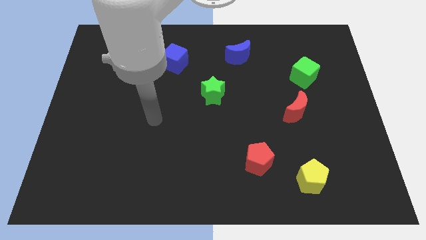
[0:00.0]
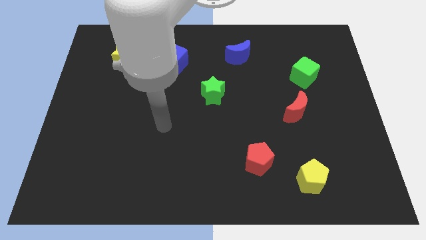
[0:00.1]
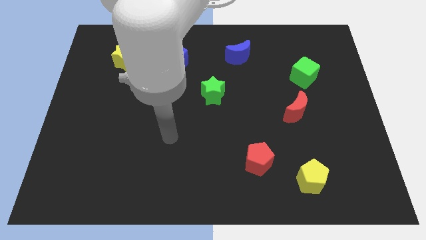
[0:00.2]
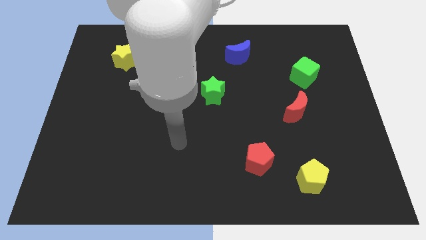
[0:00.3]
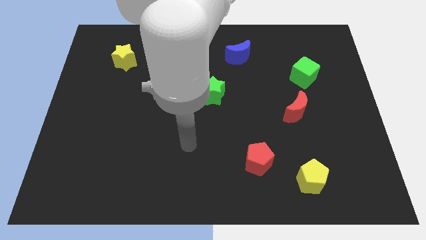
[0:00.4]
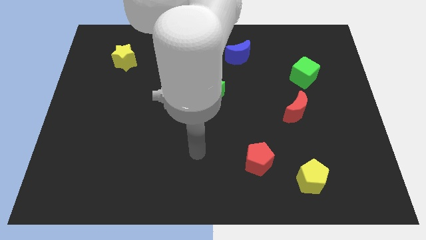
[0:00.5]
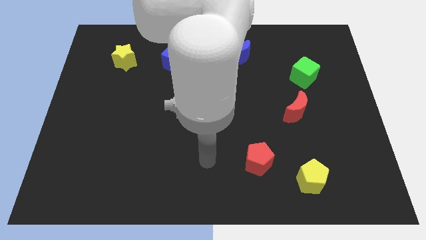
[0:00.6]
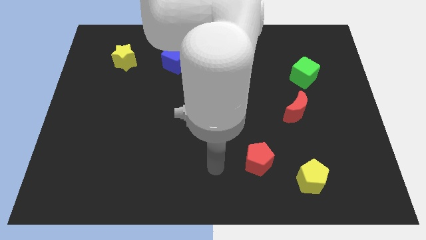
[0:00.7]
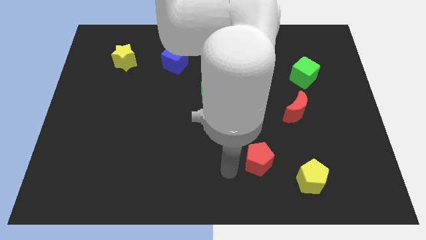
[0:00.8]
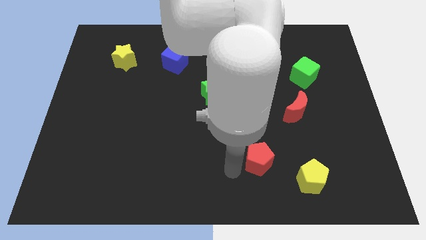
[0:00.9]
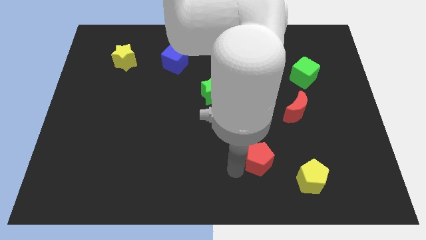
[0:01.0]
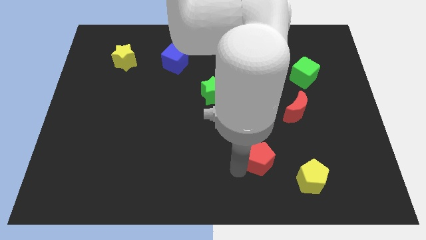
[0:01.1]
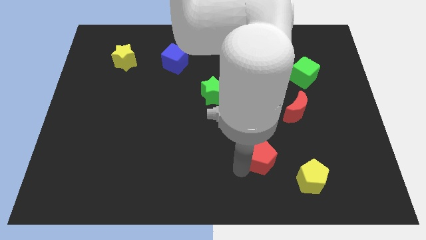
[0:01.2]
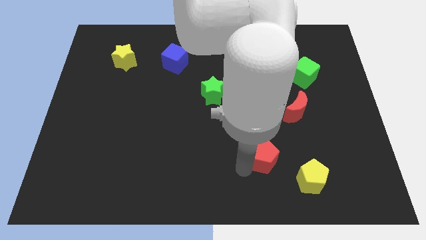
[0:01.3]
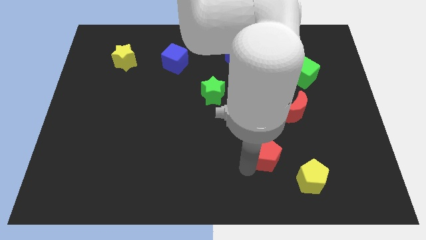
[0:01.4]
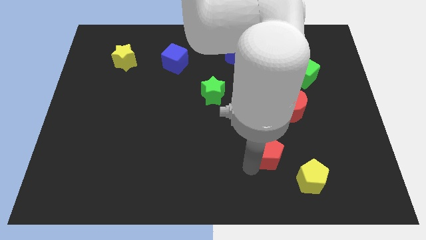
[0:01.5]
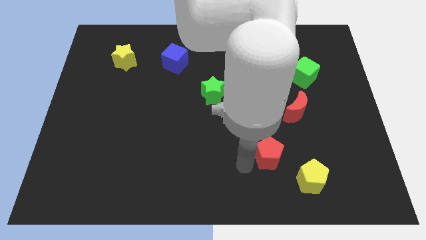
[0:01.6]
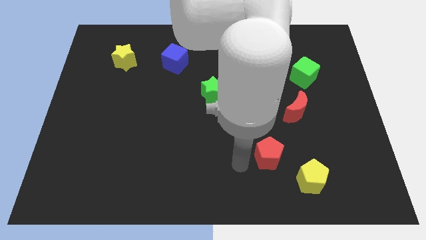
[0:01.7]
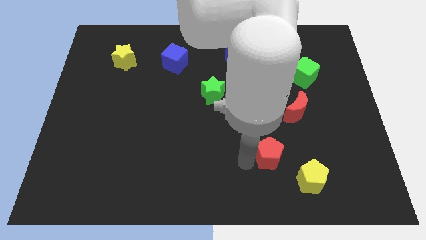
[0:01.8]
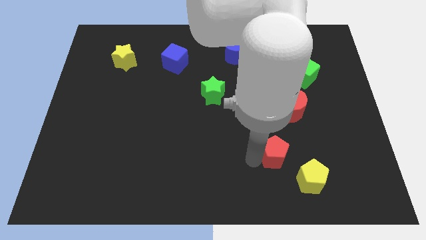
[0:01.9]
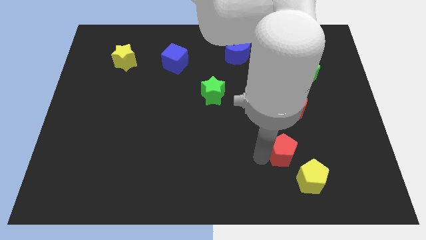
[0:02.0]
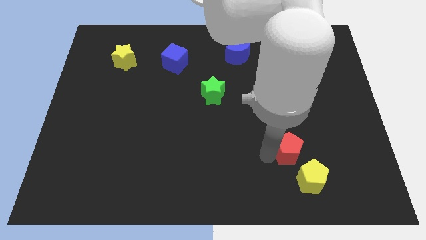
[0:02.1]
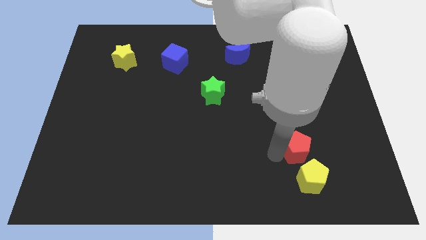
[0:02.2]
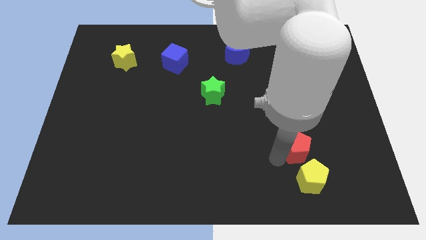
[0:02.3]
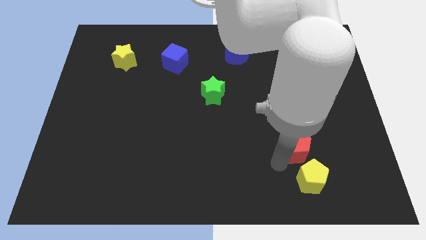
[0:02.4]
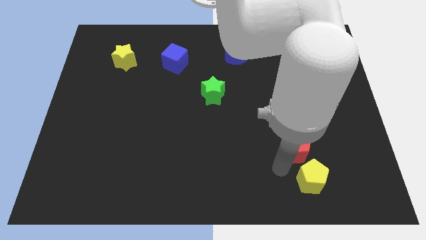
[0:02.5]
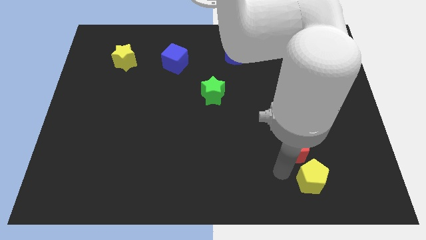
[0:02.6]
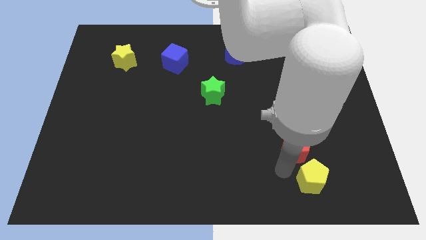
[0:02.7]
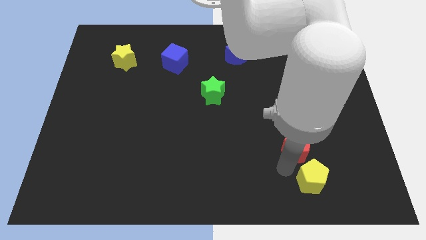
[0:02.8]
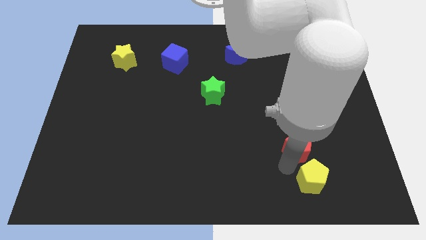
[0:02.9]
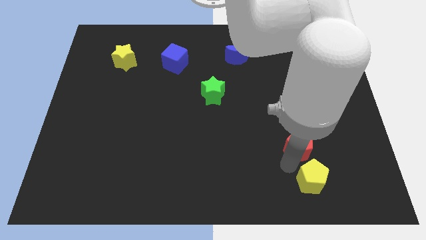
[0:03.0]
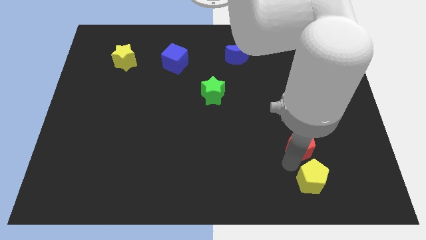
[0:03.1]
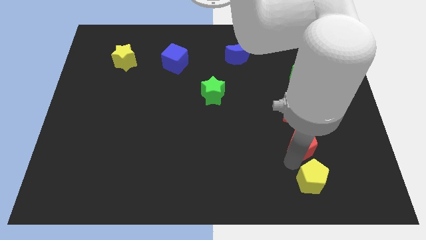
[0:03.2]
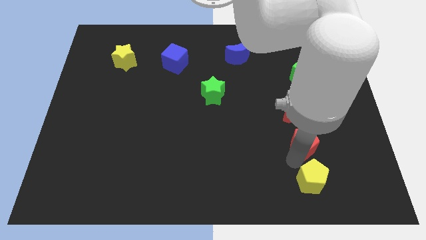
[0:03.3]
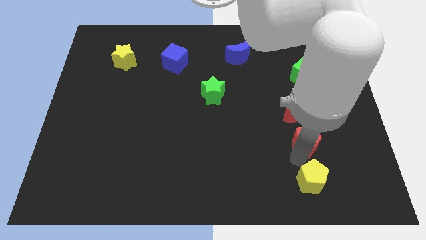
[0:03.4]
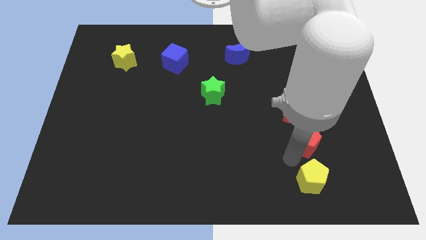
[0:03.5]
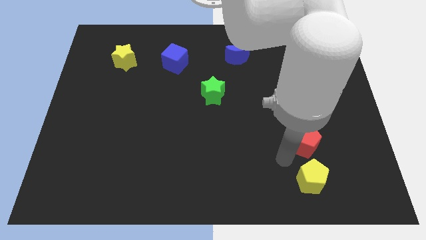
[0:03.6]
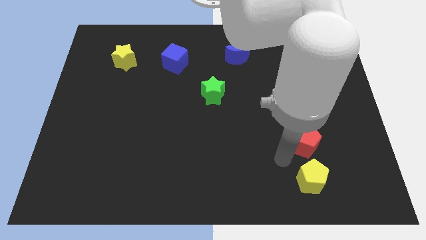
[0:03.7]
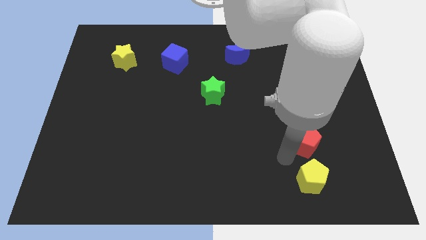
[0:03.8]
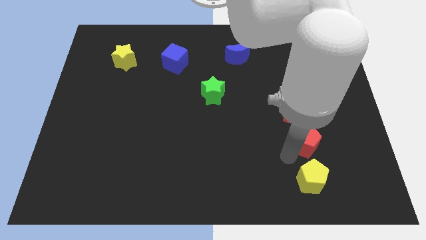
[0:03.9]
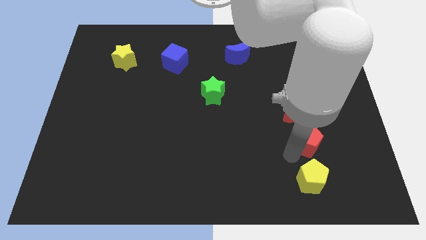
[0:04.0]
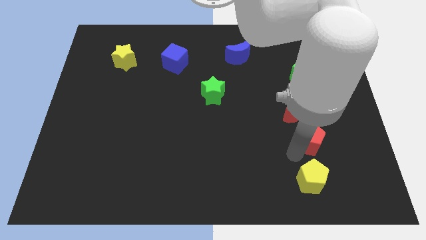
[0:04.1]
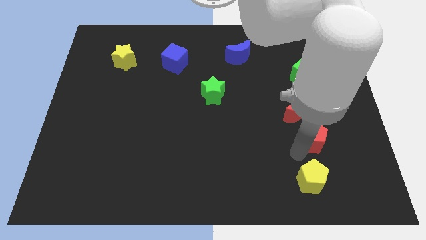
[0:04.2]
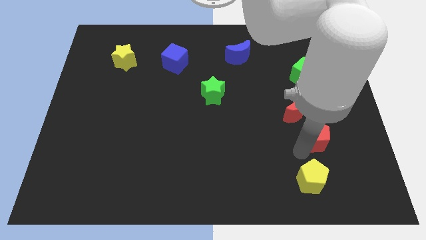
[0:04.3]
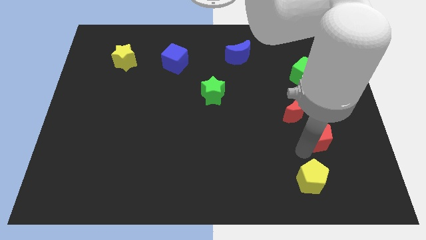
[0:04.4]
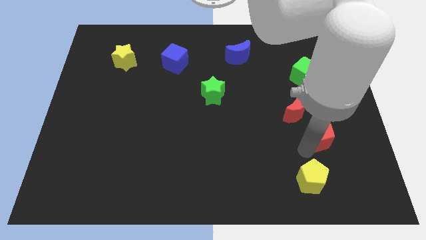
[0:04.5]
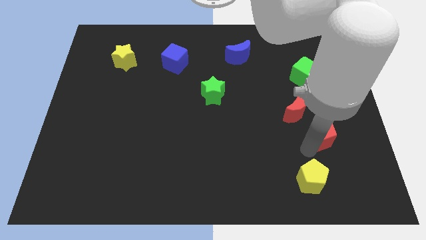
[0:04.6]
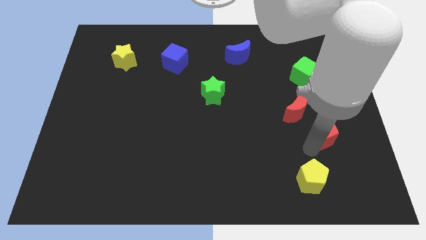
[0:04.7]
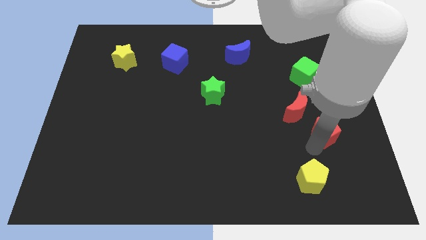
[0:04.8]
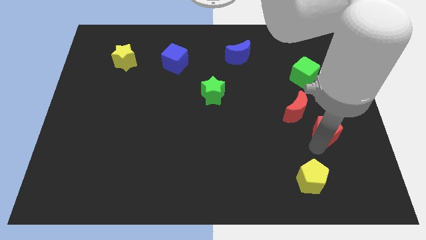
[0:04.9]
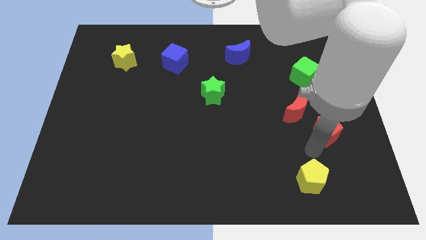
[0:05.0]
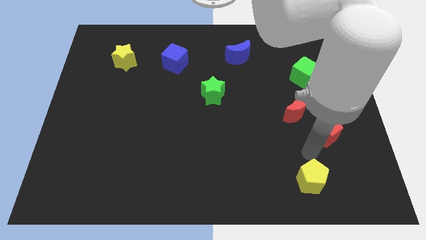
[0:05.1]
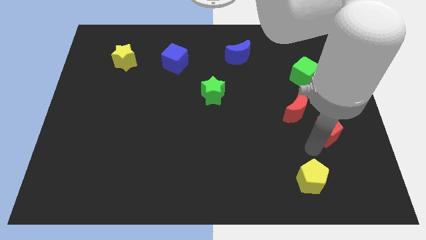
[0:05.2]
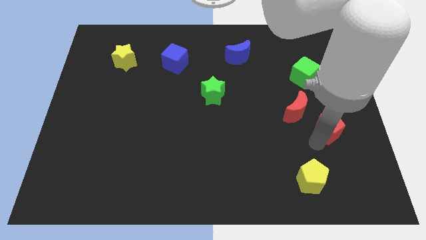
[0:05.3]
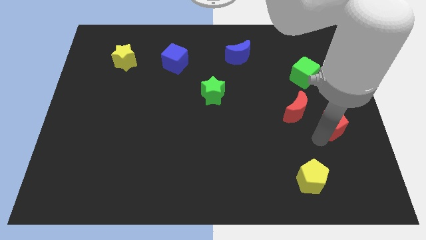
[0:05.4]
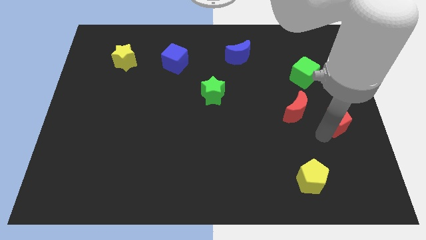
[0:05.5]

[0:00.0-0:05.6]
move the red pentagon to the center right

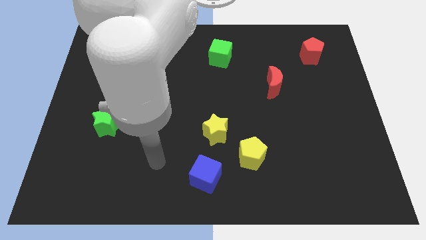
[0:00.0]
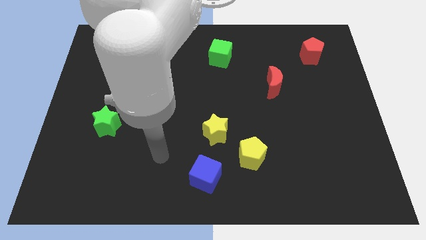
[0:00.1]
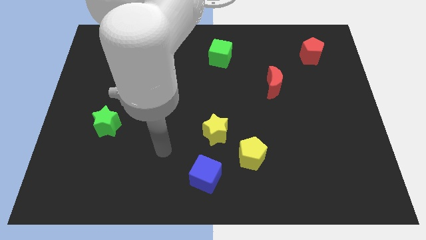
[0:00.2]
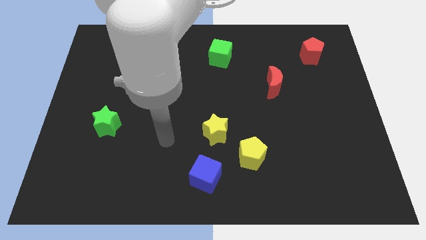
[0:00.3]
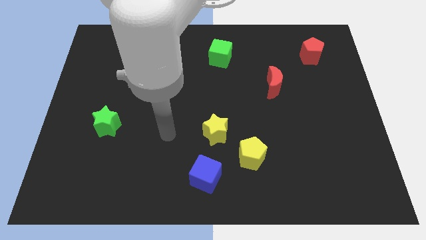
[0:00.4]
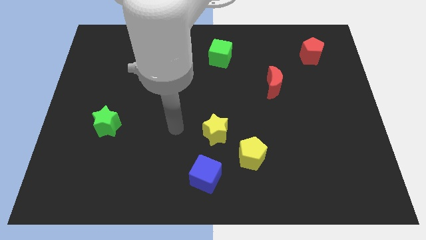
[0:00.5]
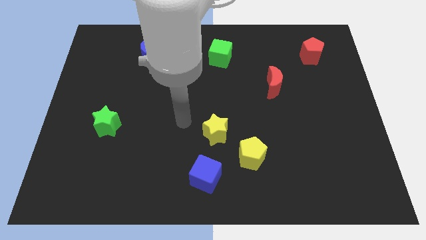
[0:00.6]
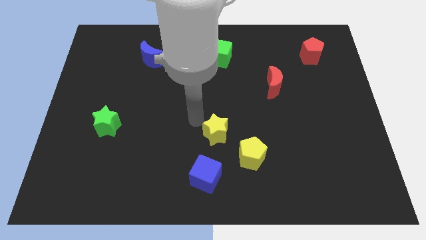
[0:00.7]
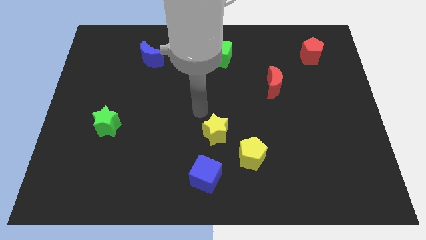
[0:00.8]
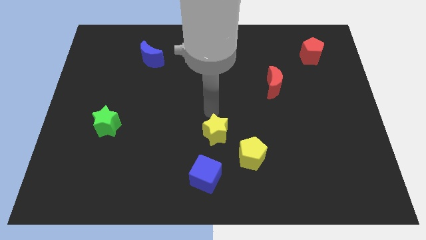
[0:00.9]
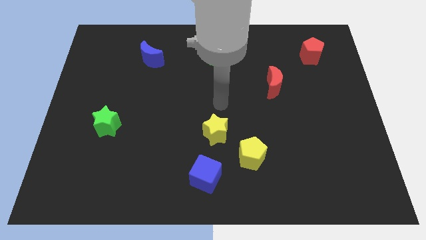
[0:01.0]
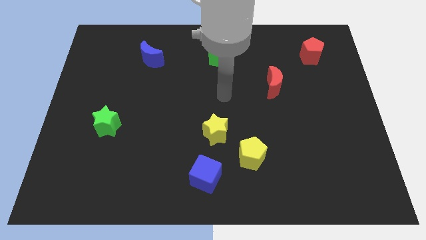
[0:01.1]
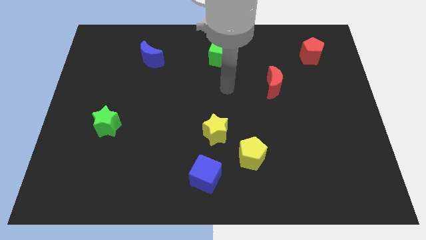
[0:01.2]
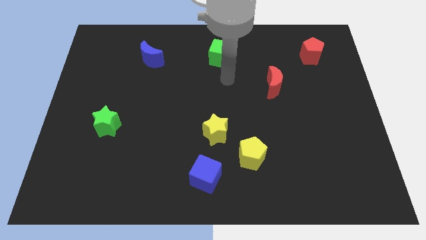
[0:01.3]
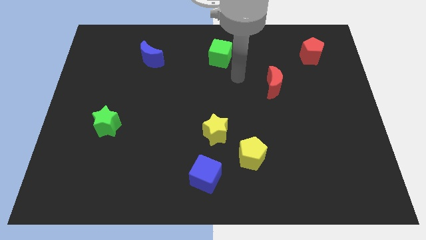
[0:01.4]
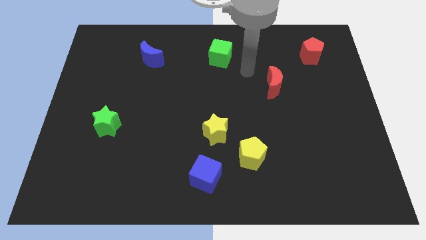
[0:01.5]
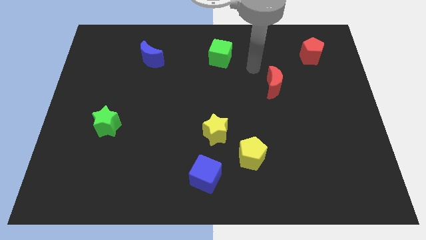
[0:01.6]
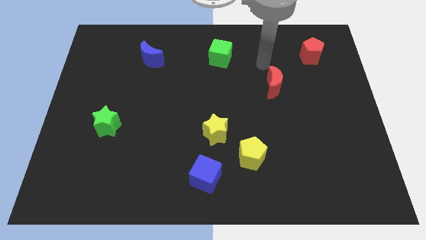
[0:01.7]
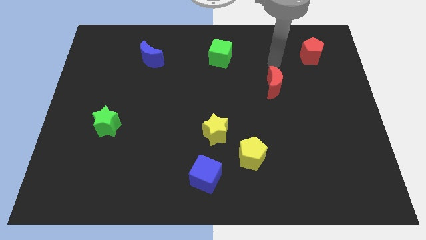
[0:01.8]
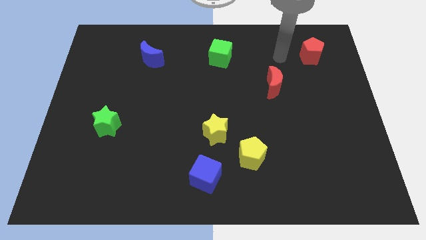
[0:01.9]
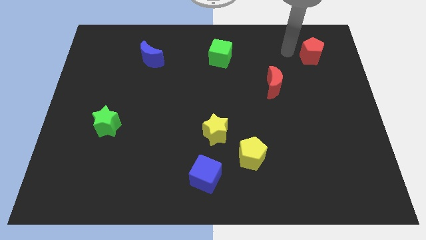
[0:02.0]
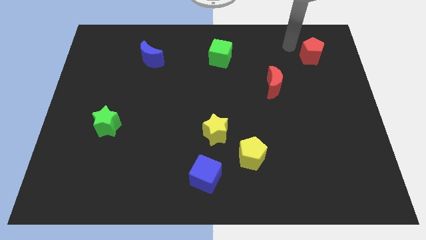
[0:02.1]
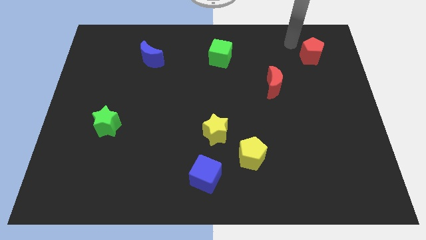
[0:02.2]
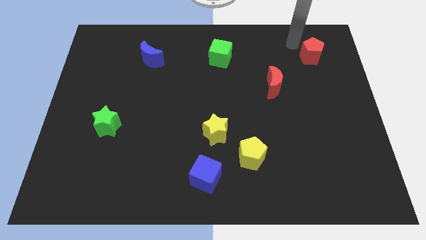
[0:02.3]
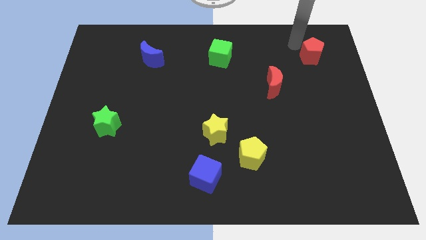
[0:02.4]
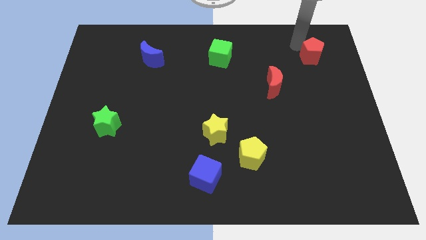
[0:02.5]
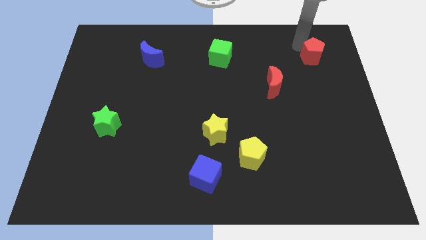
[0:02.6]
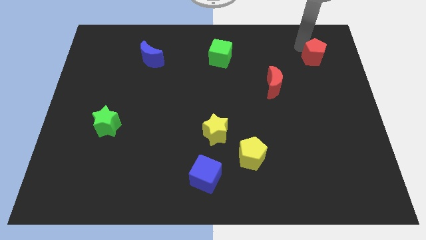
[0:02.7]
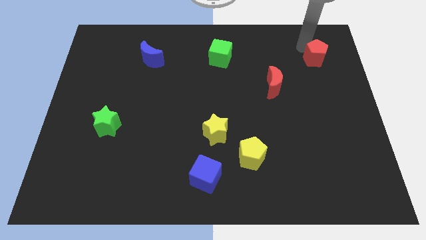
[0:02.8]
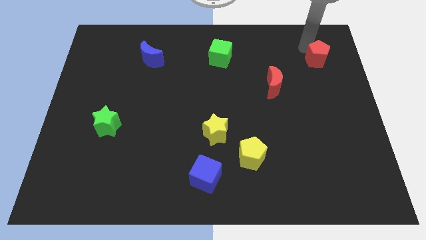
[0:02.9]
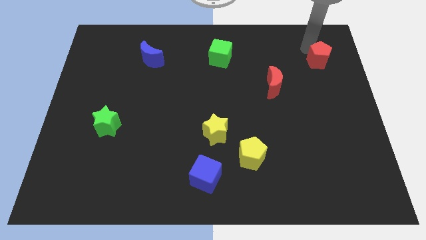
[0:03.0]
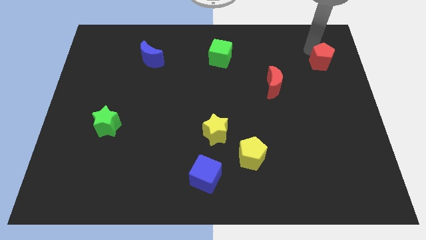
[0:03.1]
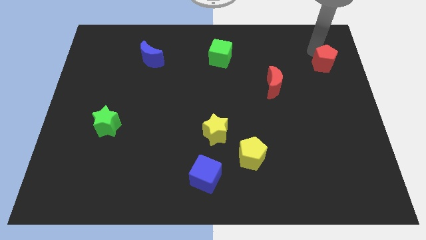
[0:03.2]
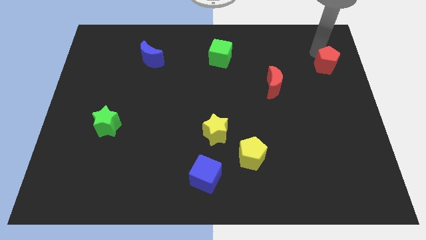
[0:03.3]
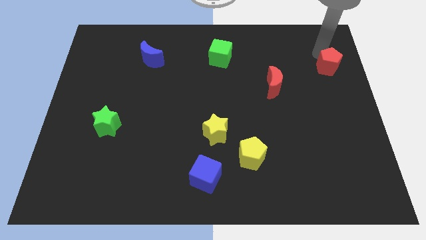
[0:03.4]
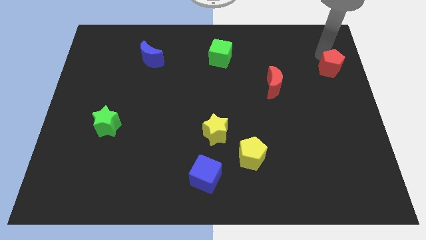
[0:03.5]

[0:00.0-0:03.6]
move the red pentagon to the right side
